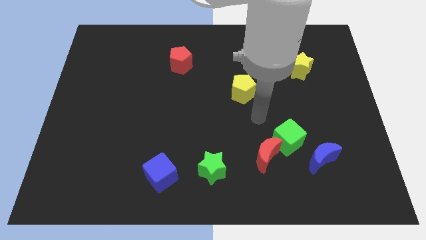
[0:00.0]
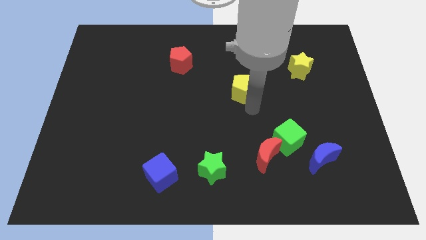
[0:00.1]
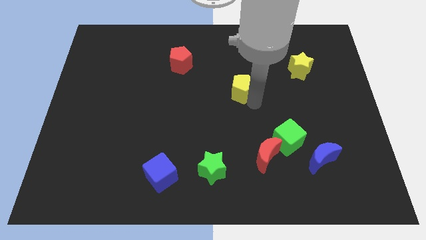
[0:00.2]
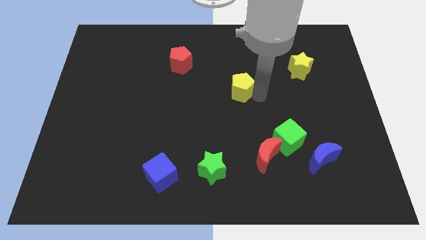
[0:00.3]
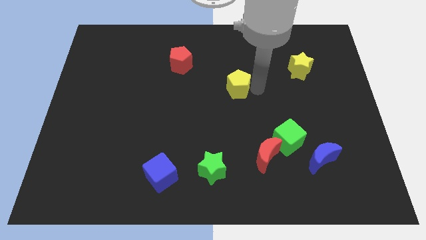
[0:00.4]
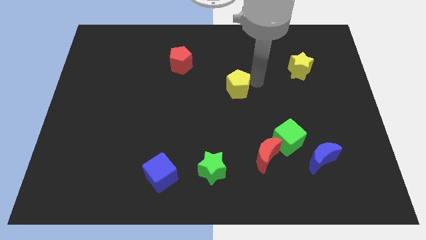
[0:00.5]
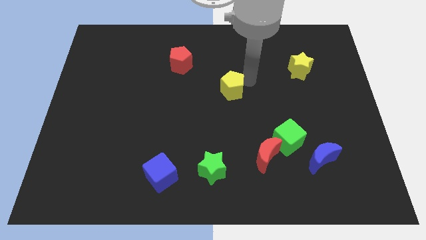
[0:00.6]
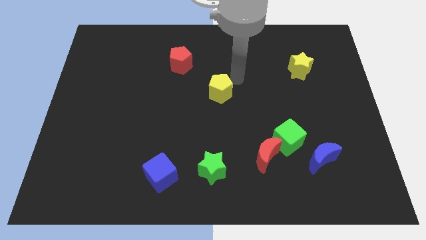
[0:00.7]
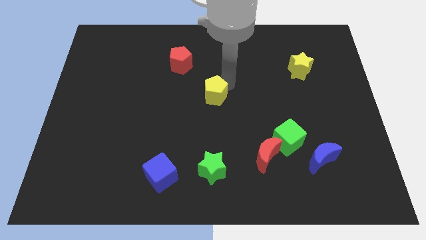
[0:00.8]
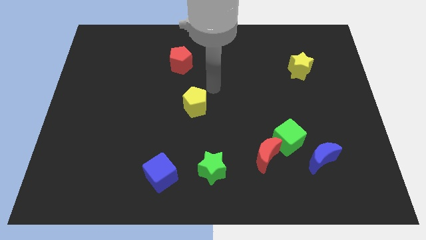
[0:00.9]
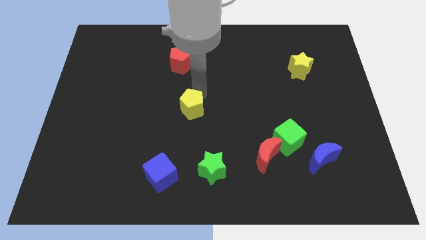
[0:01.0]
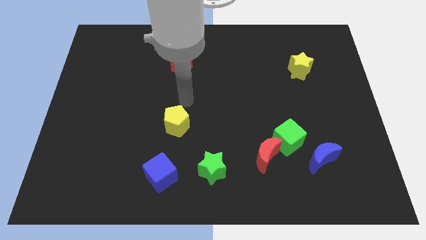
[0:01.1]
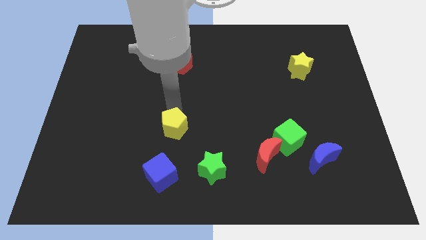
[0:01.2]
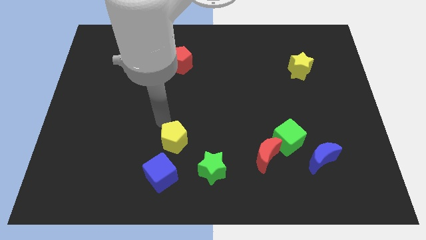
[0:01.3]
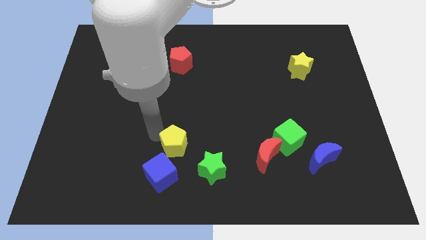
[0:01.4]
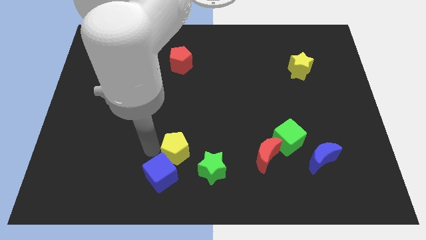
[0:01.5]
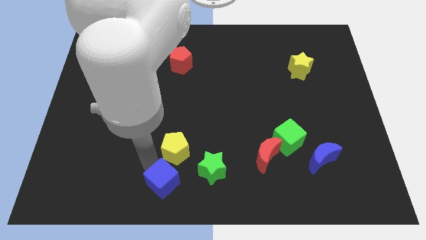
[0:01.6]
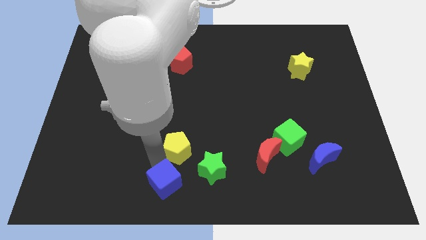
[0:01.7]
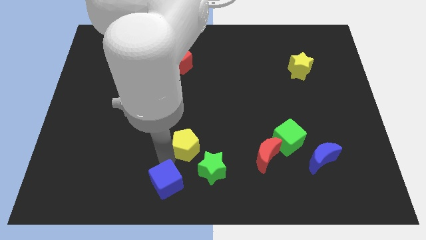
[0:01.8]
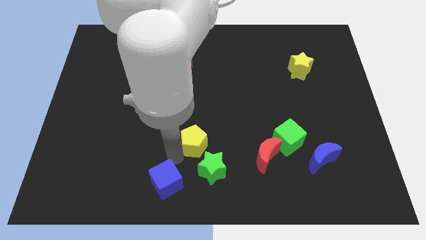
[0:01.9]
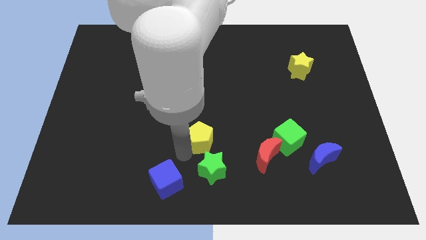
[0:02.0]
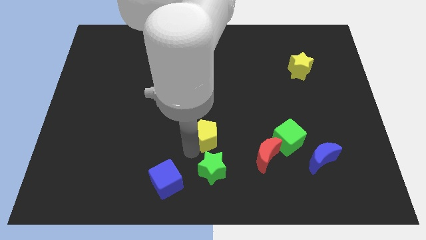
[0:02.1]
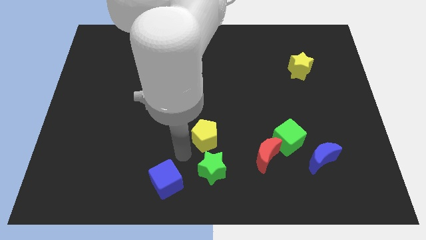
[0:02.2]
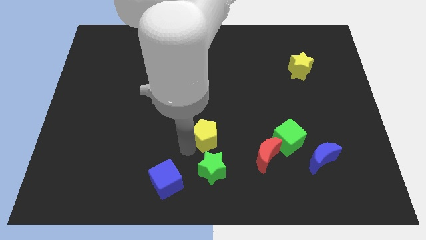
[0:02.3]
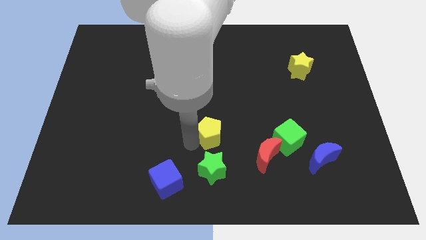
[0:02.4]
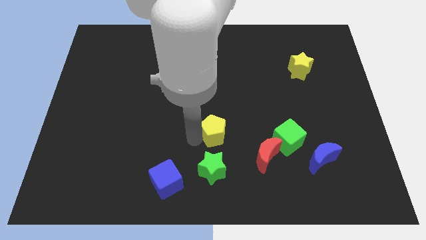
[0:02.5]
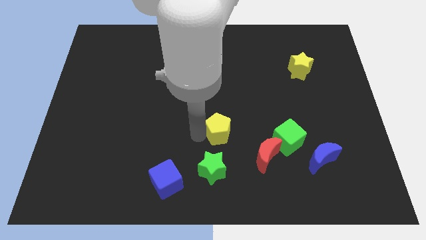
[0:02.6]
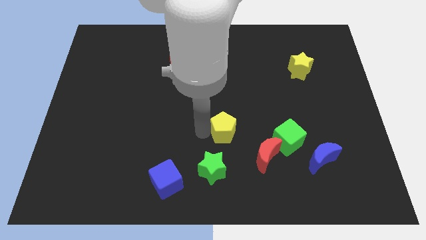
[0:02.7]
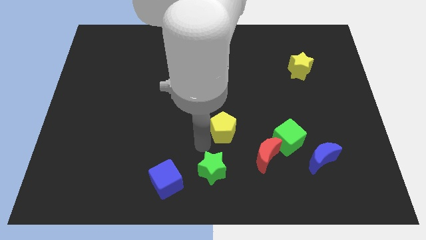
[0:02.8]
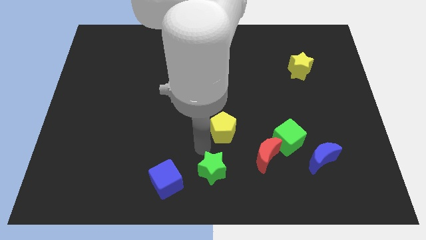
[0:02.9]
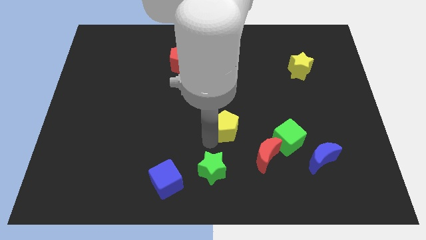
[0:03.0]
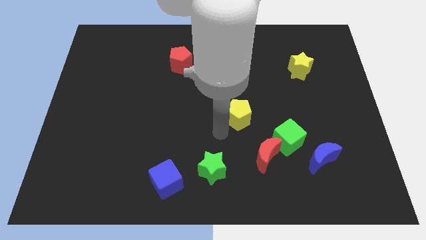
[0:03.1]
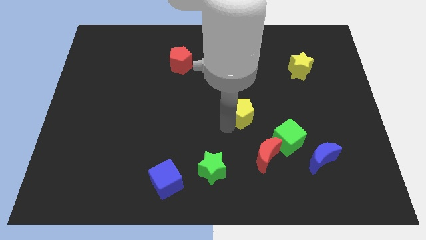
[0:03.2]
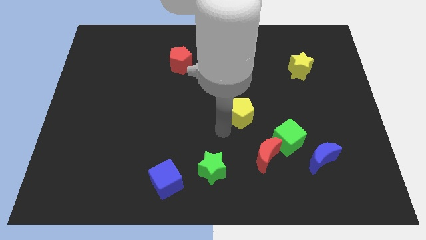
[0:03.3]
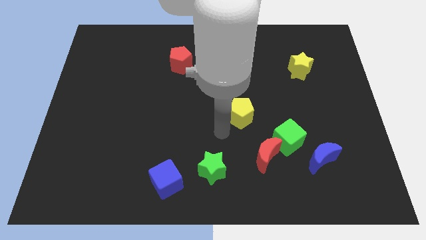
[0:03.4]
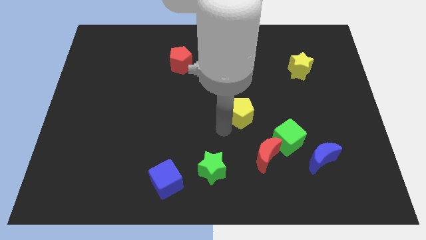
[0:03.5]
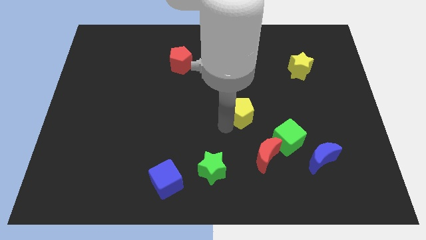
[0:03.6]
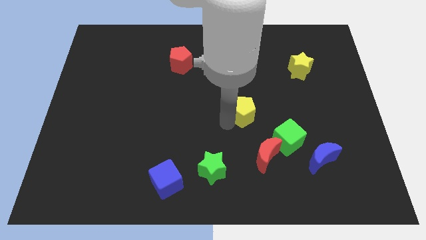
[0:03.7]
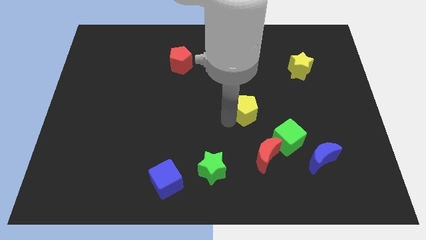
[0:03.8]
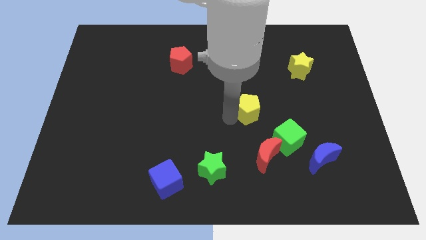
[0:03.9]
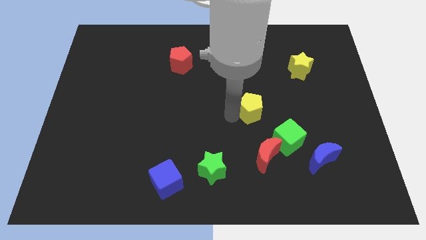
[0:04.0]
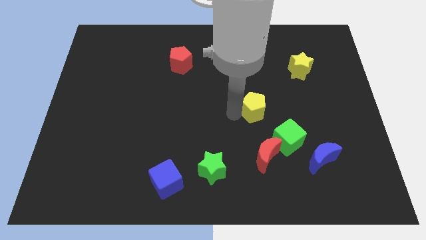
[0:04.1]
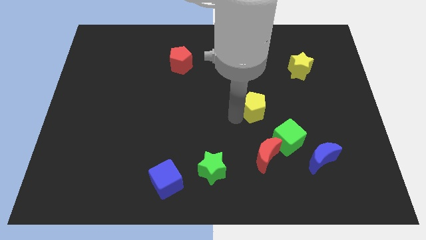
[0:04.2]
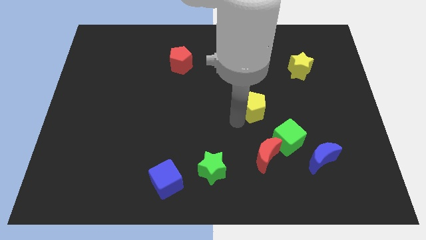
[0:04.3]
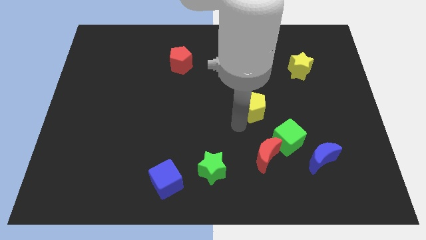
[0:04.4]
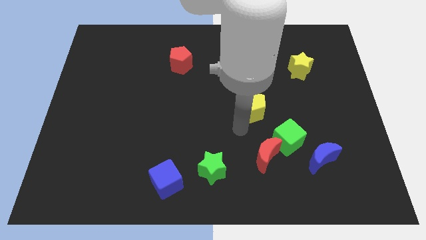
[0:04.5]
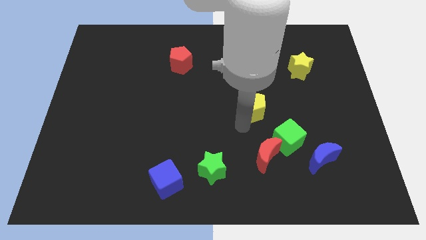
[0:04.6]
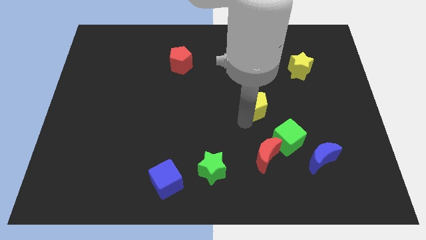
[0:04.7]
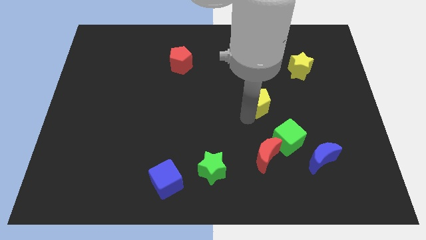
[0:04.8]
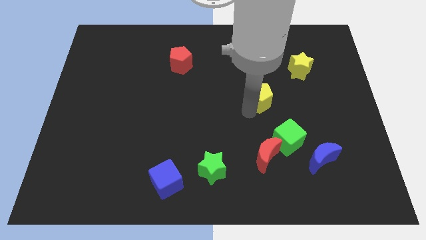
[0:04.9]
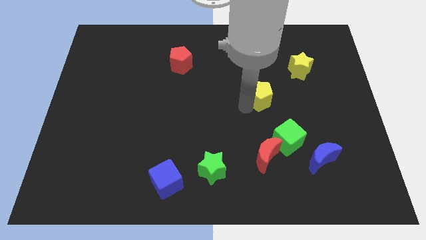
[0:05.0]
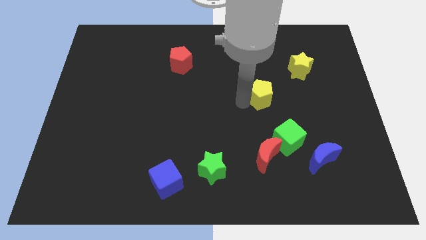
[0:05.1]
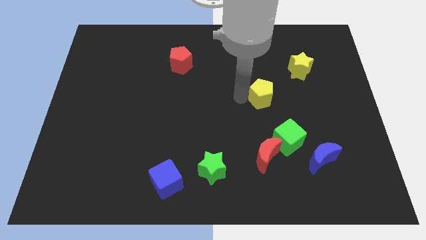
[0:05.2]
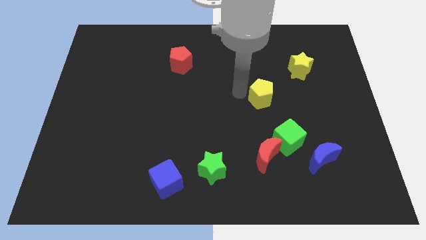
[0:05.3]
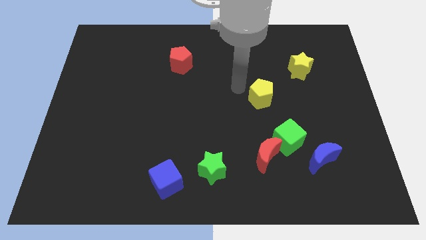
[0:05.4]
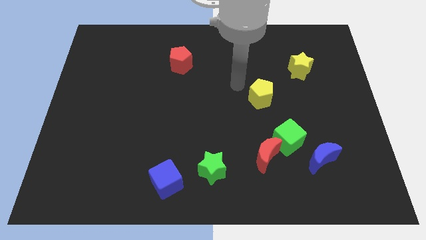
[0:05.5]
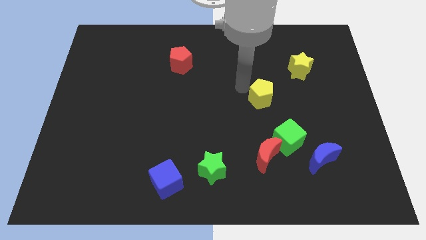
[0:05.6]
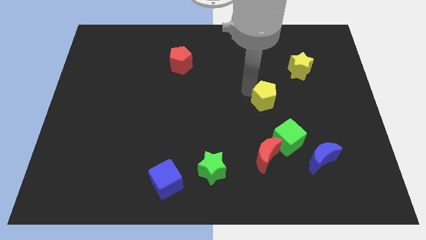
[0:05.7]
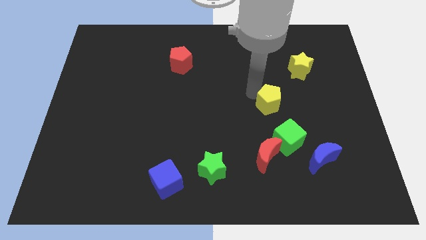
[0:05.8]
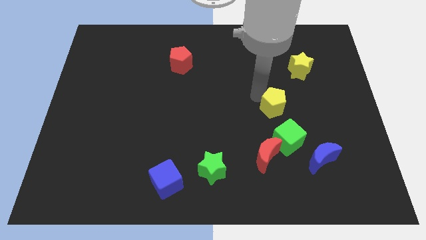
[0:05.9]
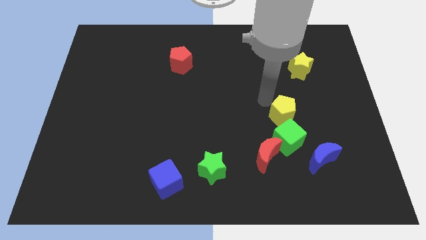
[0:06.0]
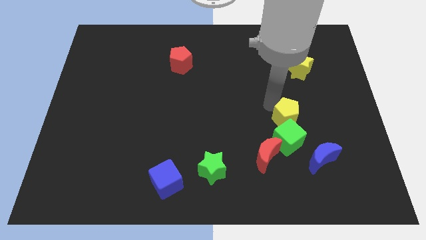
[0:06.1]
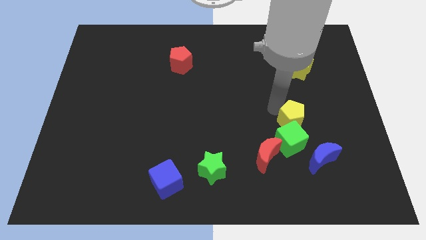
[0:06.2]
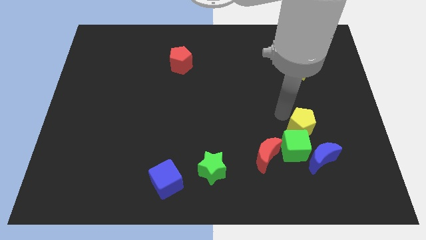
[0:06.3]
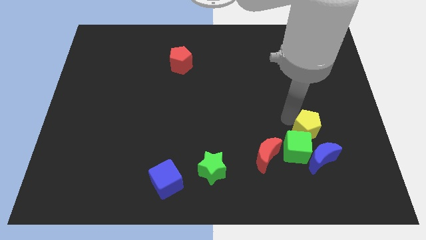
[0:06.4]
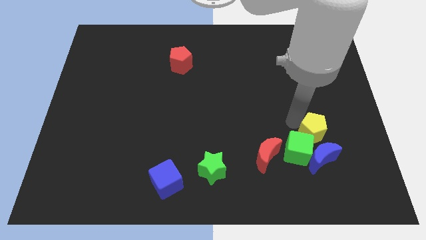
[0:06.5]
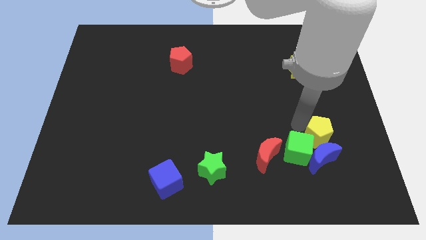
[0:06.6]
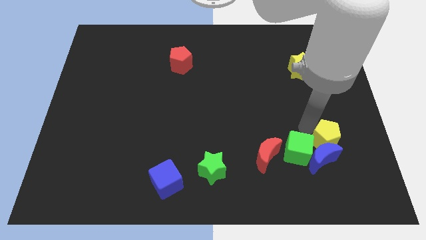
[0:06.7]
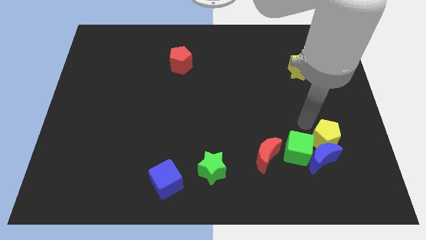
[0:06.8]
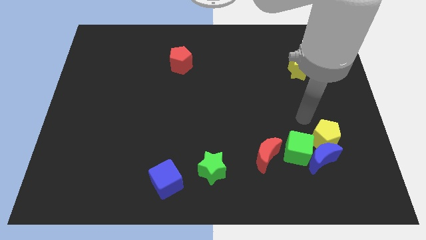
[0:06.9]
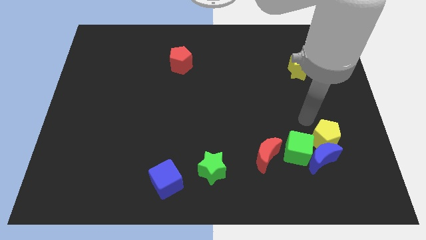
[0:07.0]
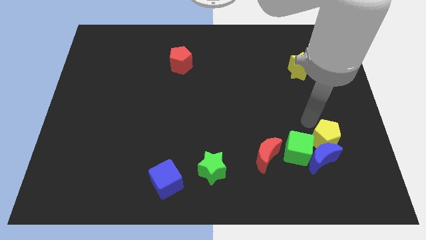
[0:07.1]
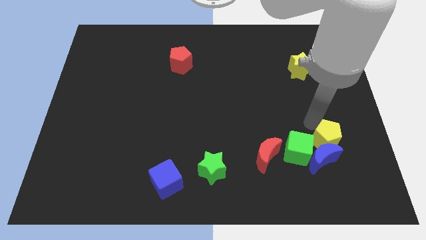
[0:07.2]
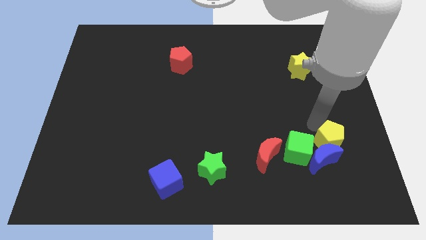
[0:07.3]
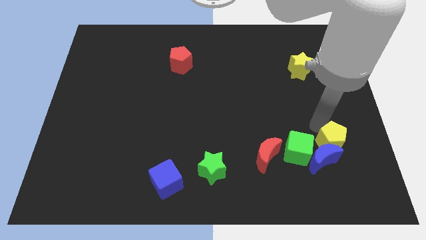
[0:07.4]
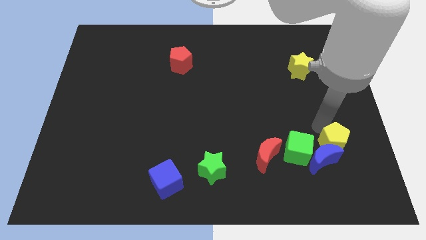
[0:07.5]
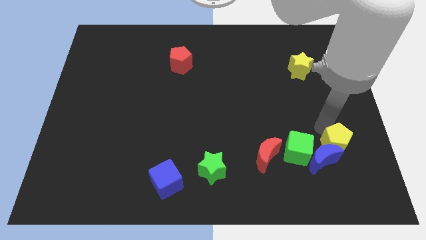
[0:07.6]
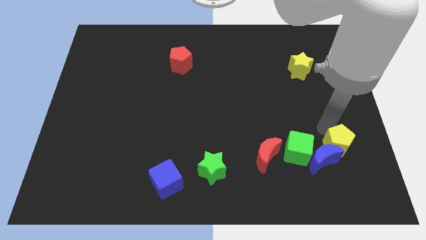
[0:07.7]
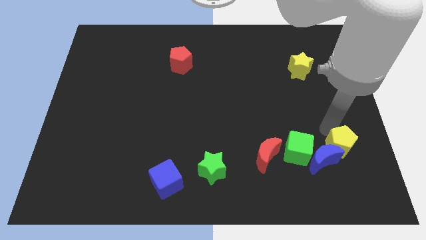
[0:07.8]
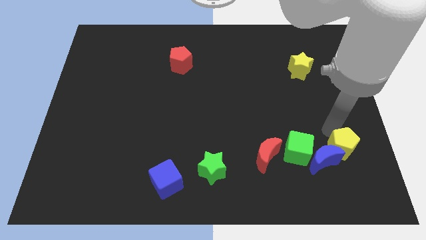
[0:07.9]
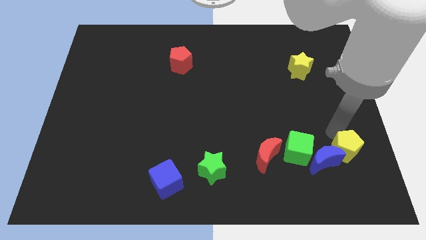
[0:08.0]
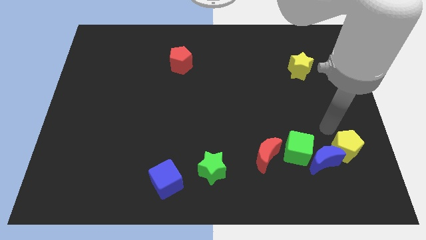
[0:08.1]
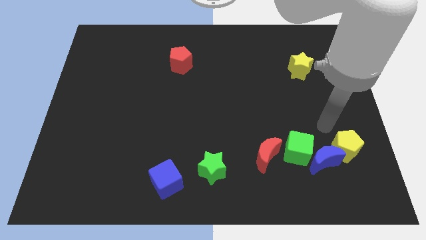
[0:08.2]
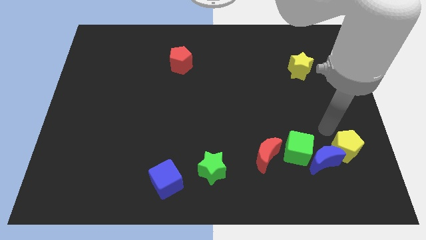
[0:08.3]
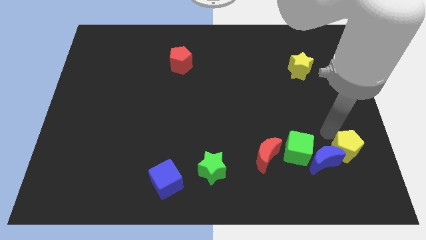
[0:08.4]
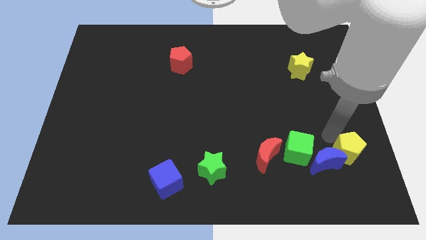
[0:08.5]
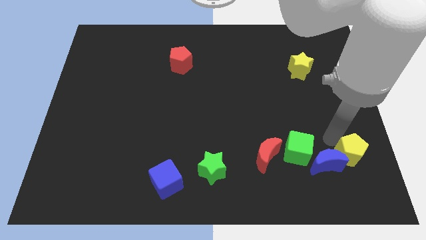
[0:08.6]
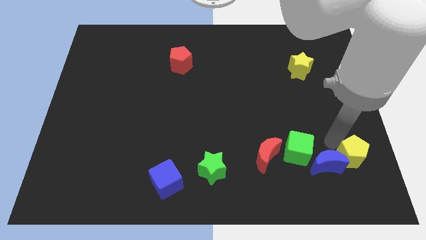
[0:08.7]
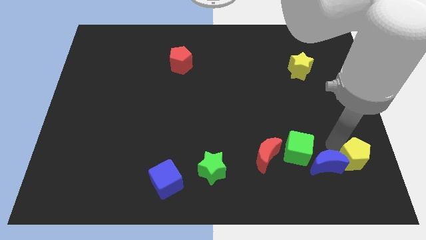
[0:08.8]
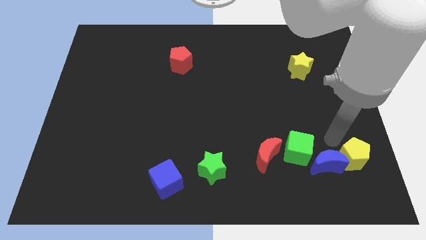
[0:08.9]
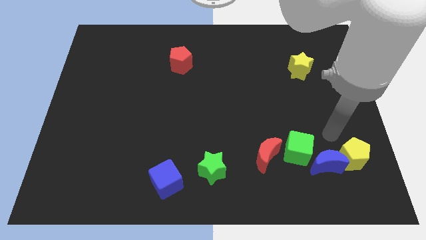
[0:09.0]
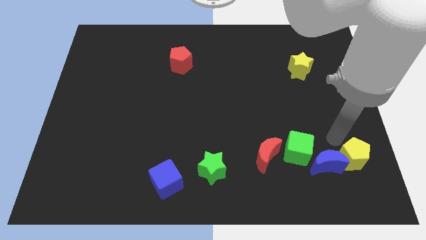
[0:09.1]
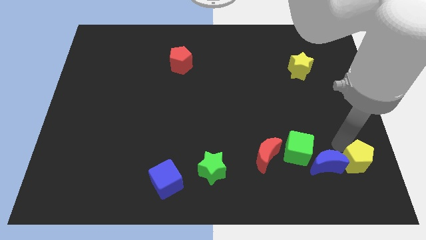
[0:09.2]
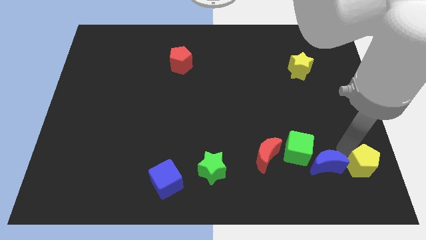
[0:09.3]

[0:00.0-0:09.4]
slide the yellow pentagon to the bottom right of the board
